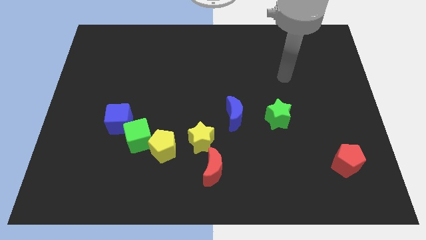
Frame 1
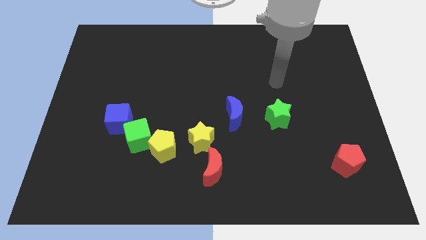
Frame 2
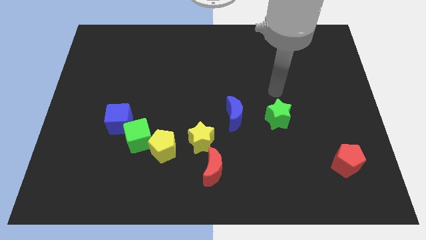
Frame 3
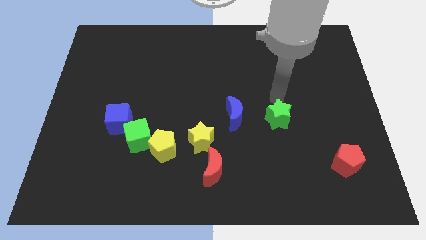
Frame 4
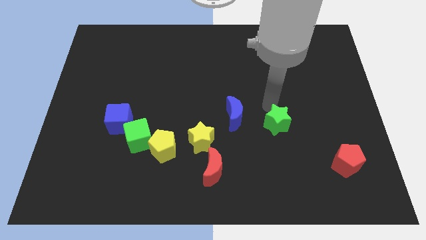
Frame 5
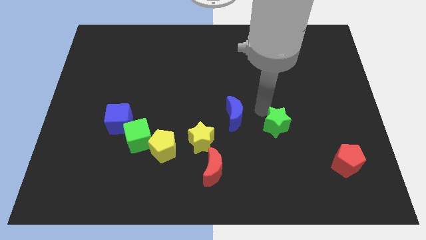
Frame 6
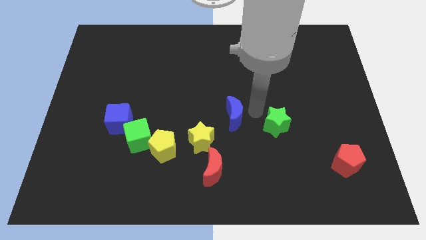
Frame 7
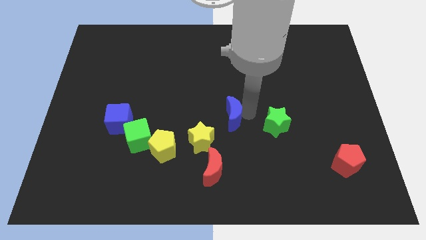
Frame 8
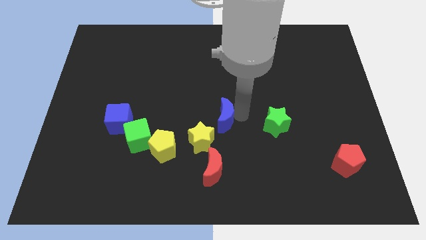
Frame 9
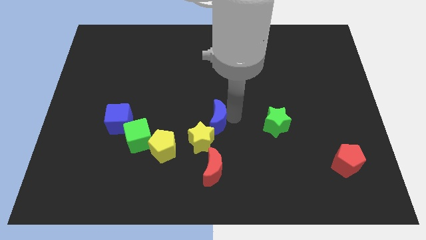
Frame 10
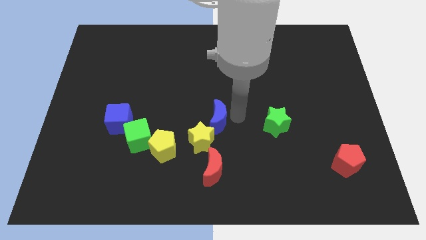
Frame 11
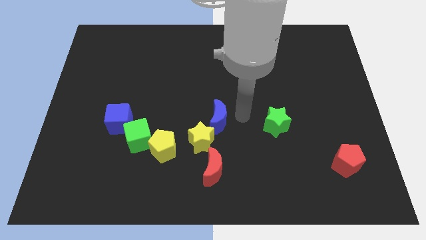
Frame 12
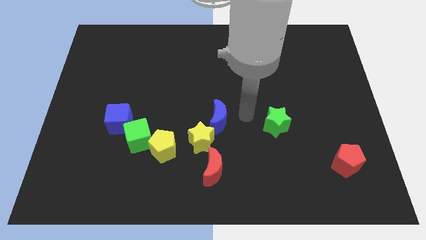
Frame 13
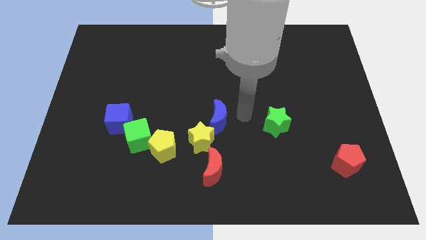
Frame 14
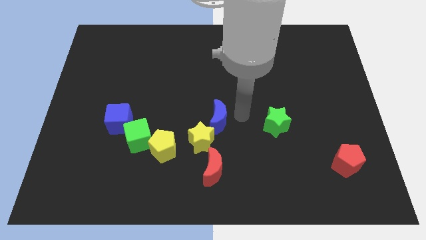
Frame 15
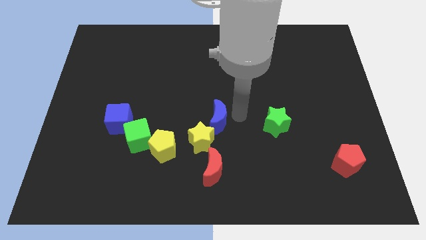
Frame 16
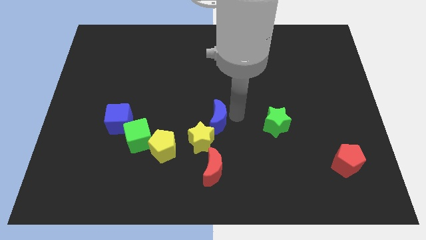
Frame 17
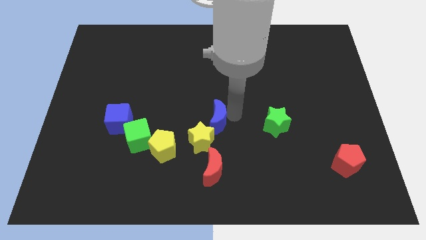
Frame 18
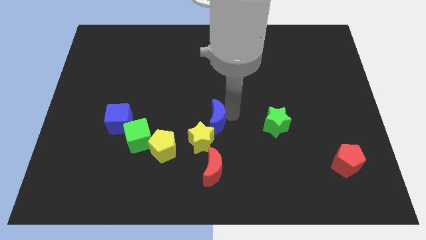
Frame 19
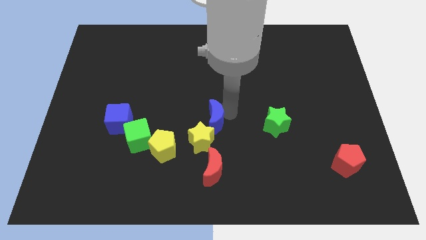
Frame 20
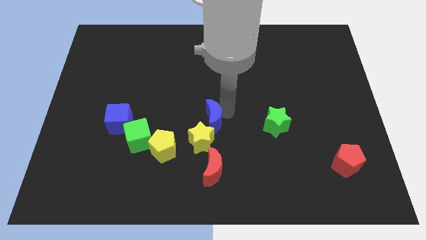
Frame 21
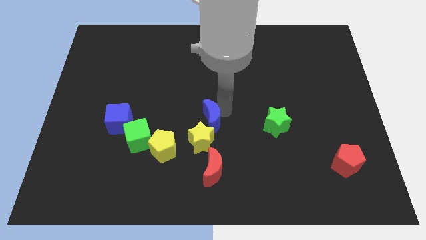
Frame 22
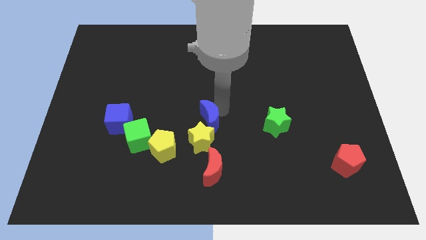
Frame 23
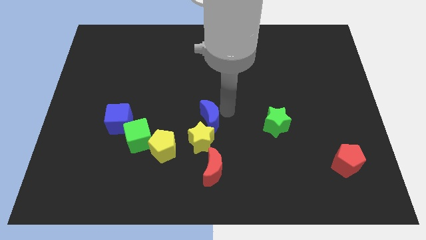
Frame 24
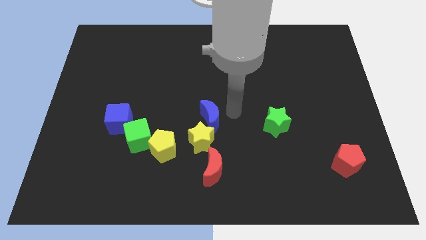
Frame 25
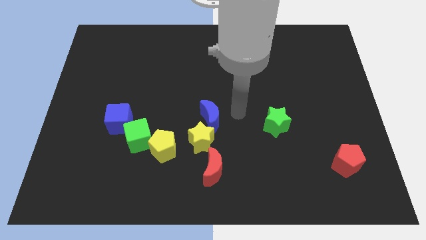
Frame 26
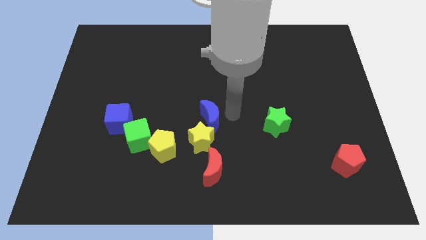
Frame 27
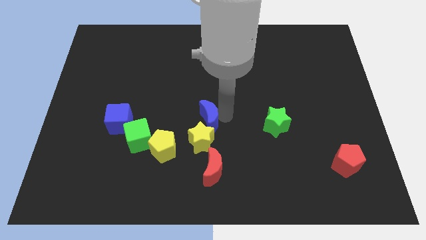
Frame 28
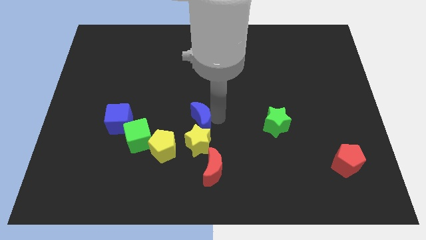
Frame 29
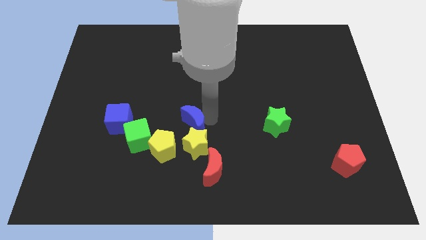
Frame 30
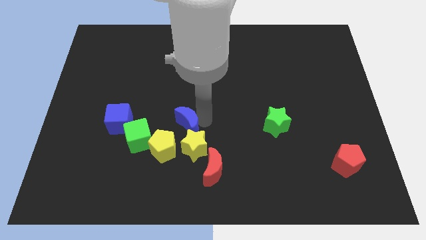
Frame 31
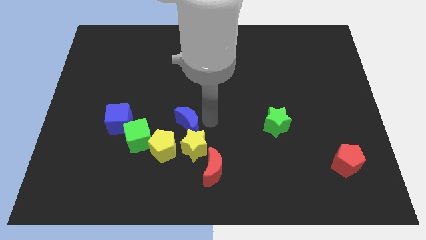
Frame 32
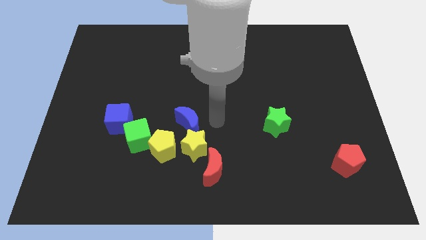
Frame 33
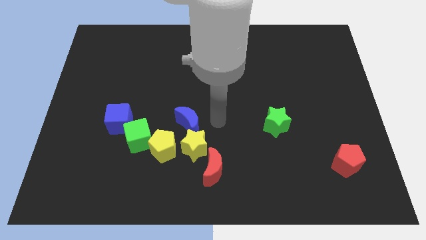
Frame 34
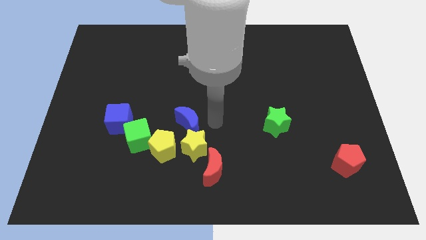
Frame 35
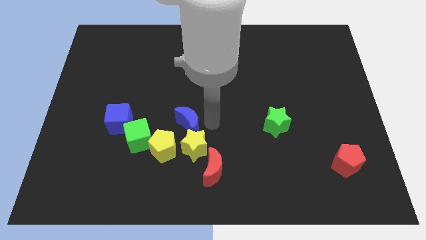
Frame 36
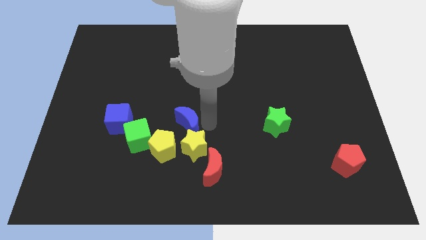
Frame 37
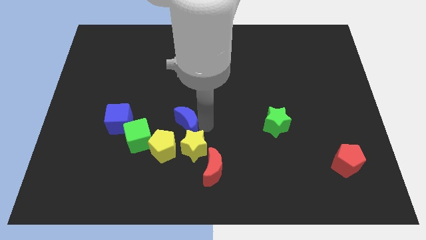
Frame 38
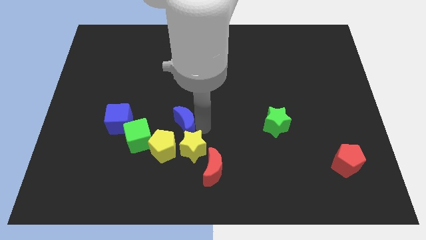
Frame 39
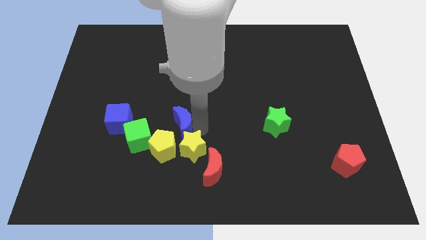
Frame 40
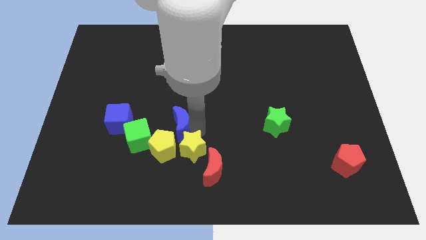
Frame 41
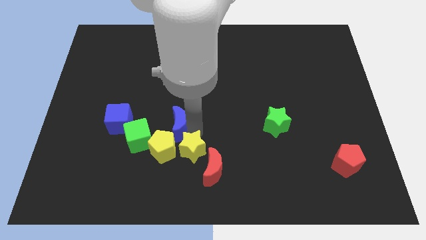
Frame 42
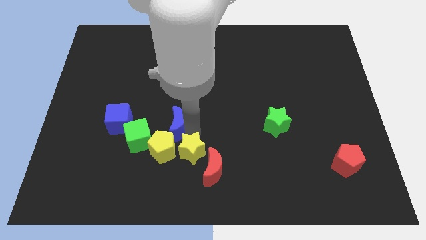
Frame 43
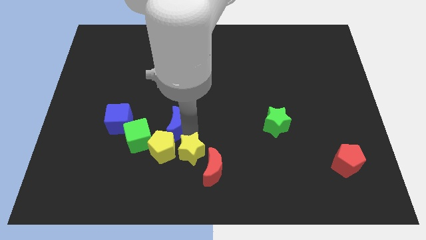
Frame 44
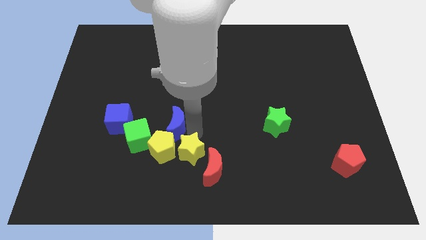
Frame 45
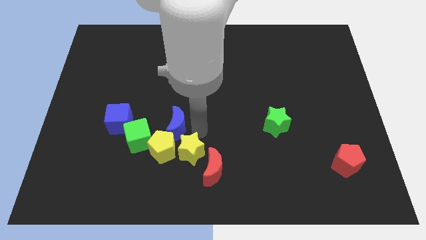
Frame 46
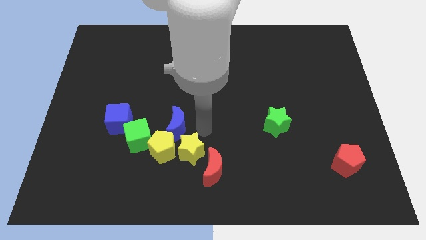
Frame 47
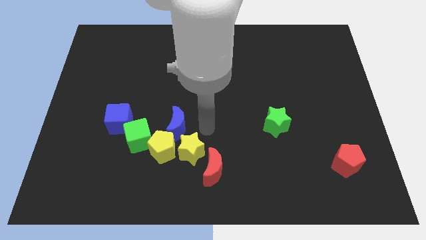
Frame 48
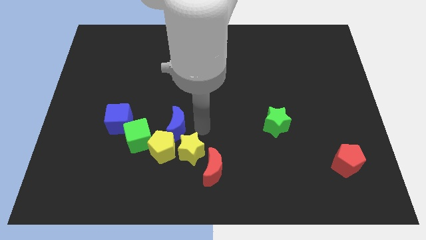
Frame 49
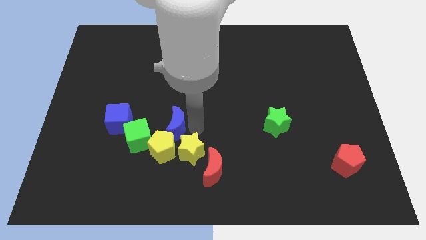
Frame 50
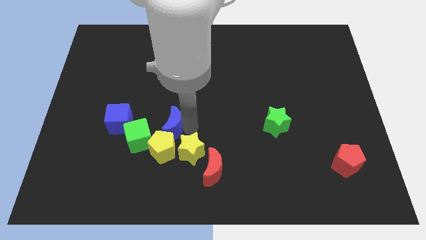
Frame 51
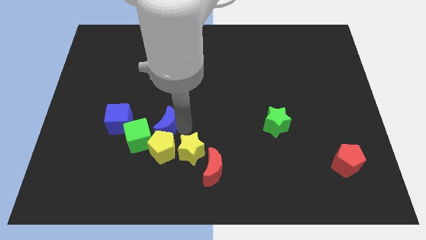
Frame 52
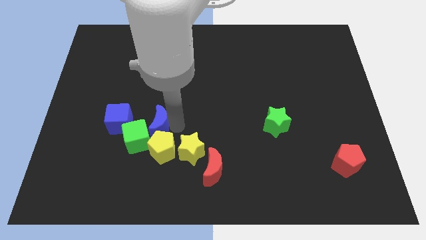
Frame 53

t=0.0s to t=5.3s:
move the blue moon to the green cube

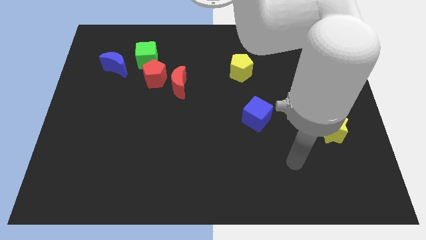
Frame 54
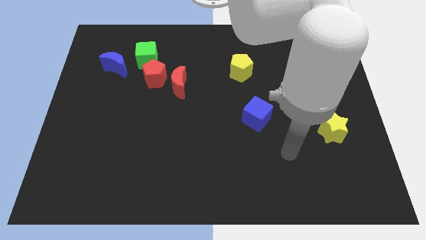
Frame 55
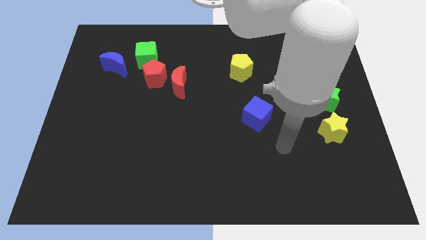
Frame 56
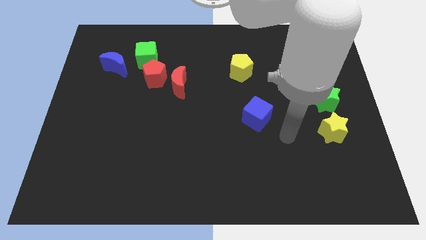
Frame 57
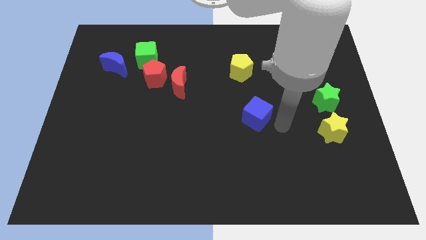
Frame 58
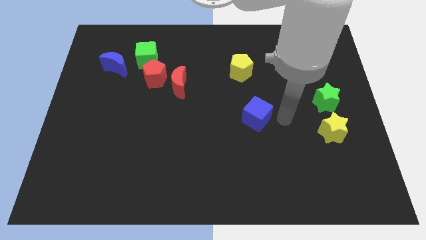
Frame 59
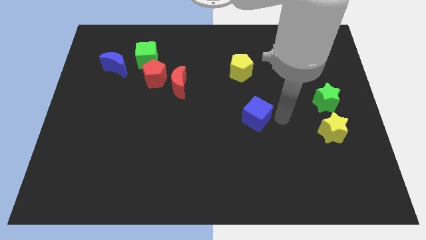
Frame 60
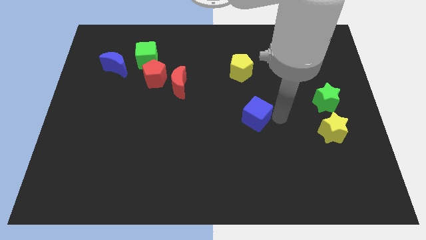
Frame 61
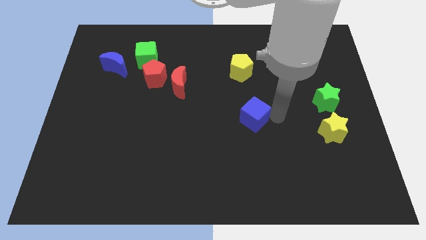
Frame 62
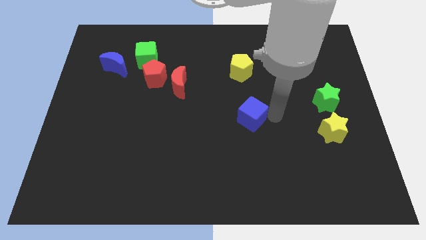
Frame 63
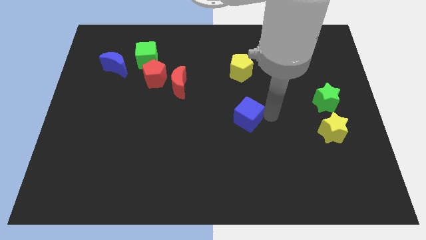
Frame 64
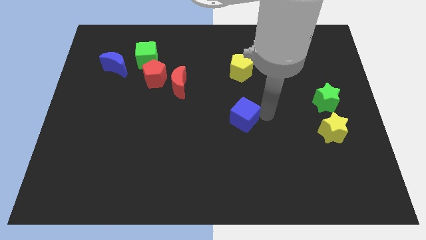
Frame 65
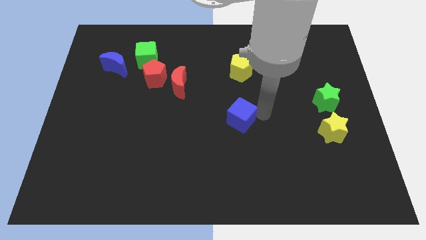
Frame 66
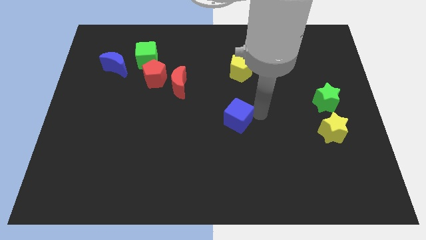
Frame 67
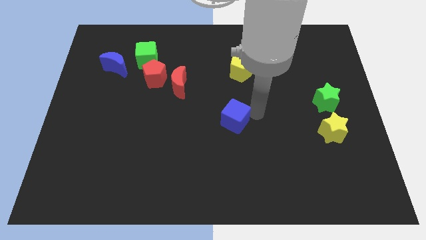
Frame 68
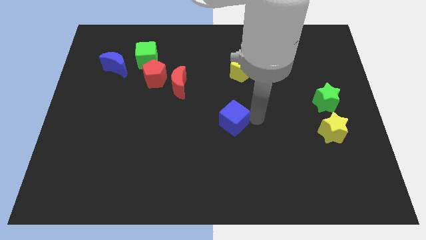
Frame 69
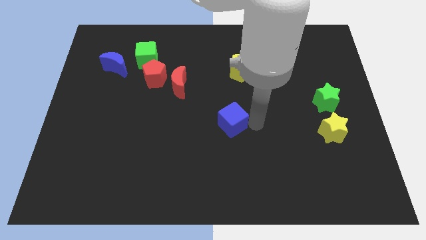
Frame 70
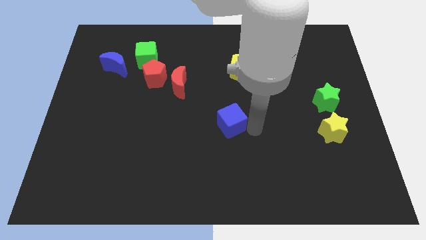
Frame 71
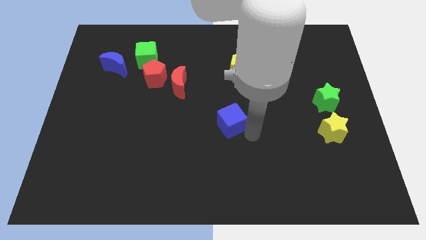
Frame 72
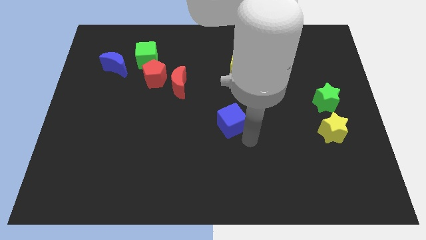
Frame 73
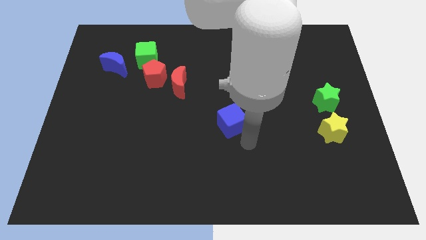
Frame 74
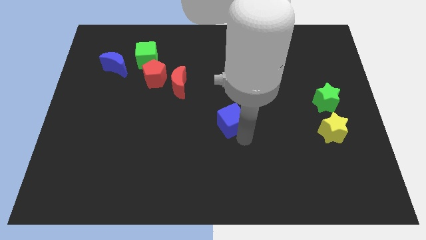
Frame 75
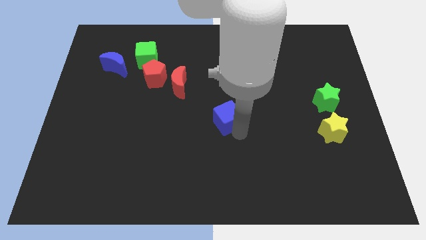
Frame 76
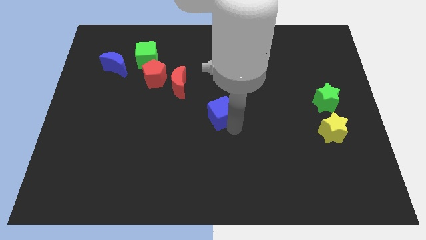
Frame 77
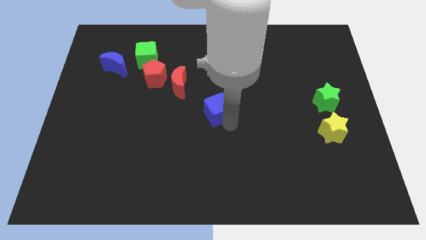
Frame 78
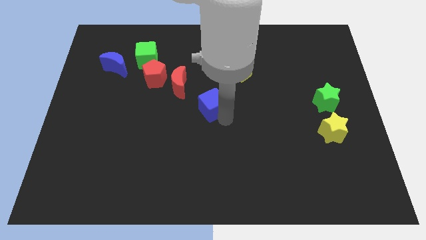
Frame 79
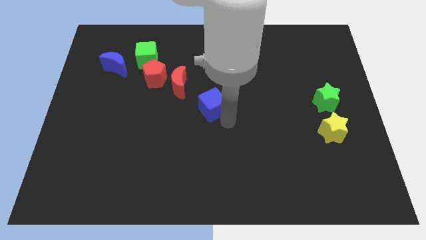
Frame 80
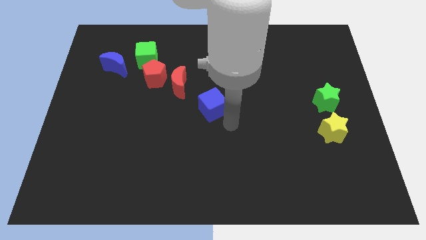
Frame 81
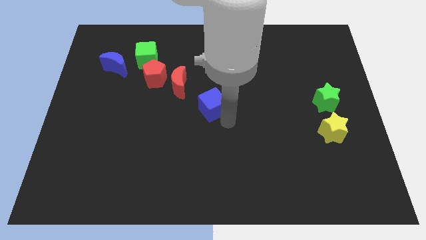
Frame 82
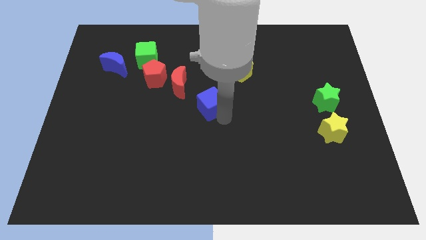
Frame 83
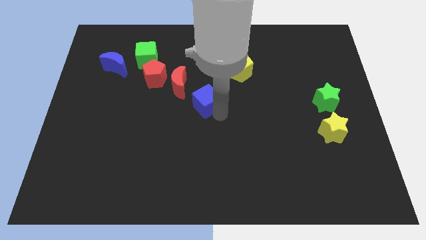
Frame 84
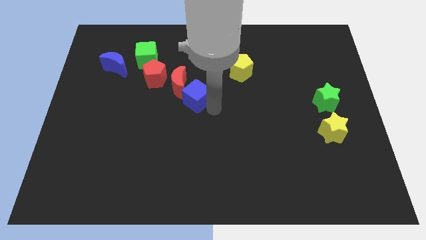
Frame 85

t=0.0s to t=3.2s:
move the blue cube towards the red moon

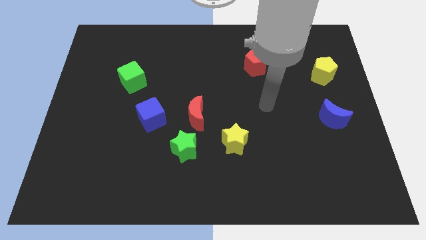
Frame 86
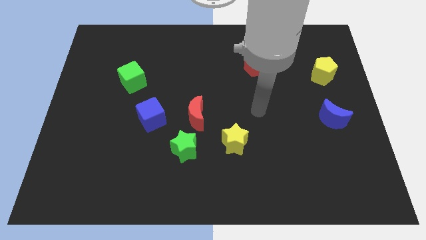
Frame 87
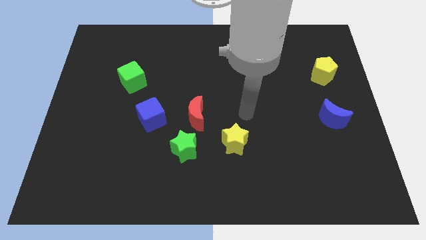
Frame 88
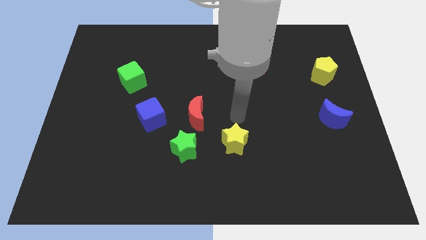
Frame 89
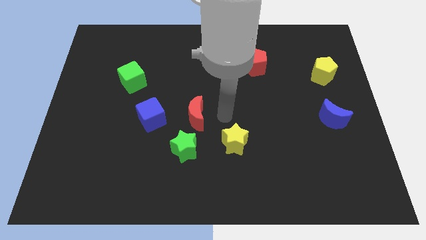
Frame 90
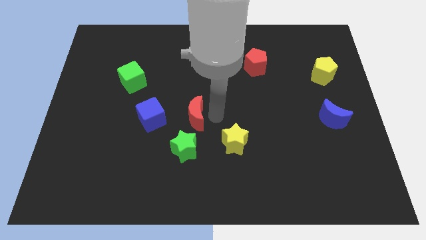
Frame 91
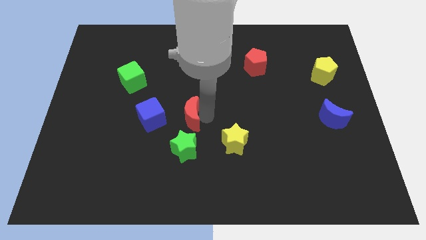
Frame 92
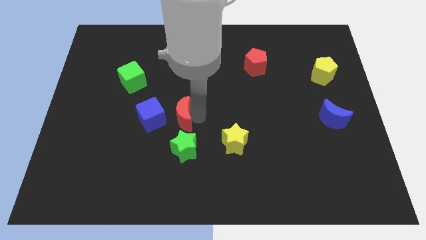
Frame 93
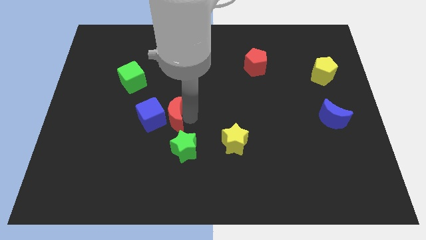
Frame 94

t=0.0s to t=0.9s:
move the red moon to the blue cube
